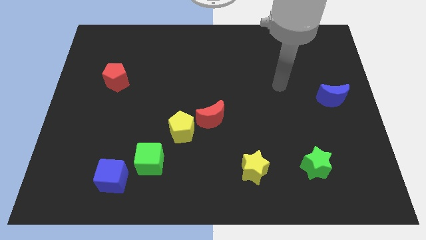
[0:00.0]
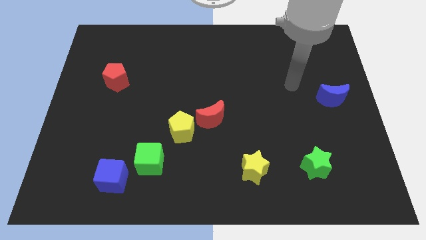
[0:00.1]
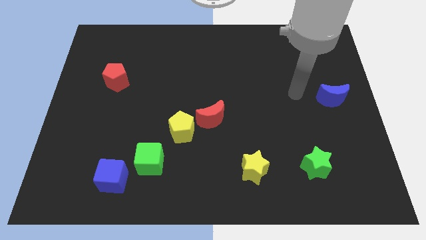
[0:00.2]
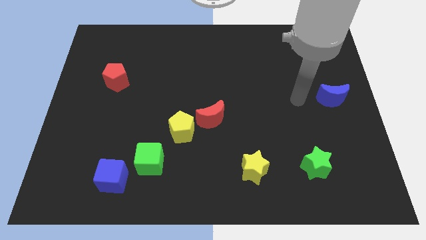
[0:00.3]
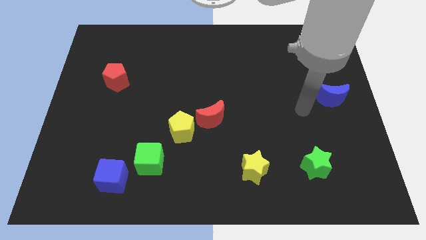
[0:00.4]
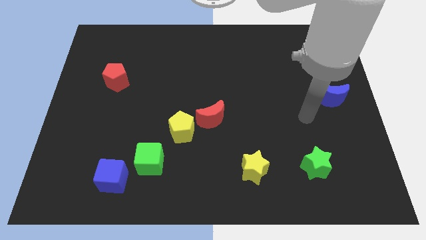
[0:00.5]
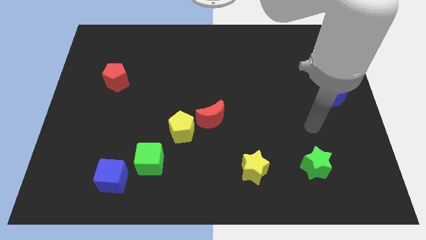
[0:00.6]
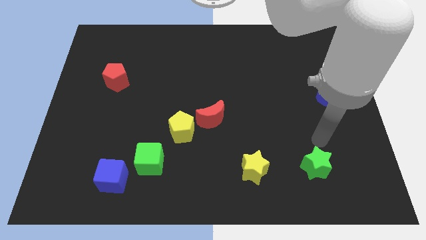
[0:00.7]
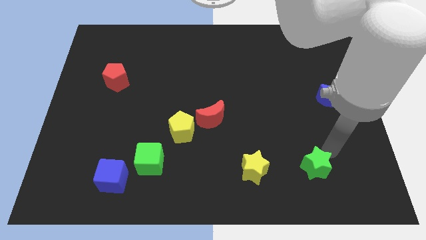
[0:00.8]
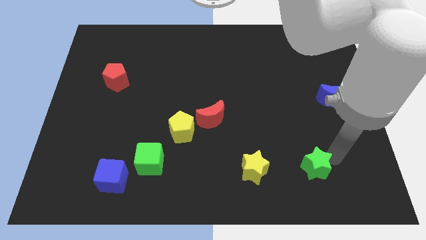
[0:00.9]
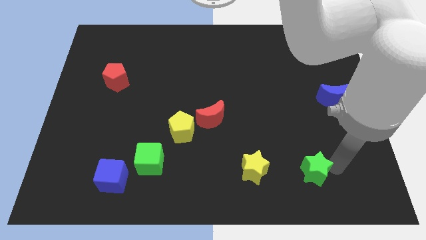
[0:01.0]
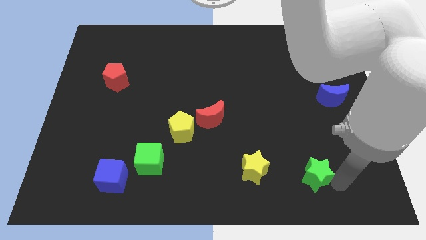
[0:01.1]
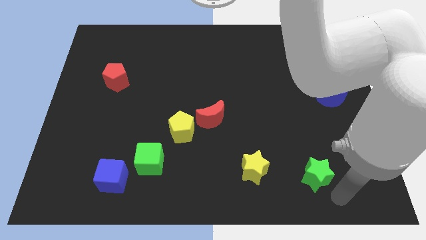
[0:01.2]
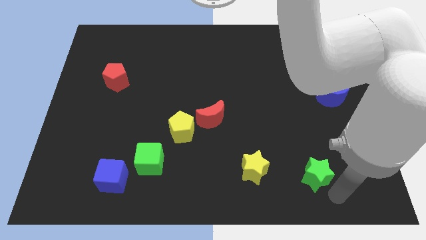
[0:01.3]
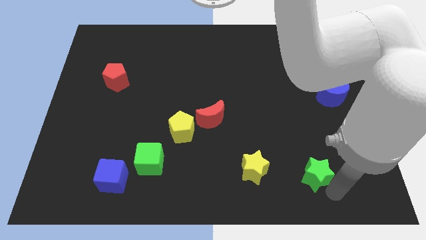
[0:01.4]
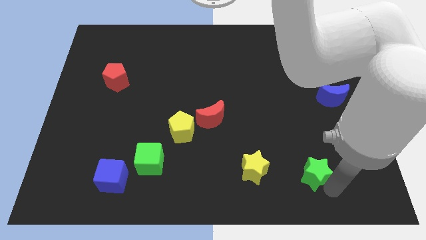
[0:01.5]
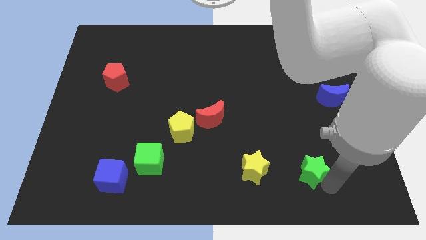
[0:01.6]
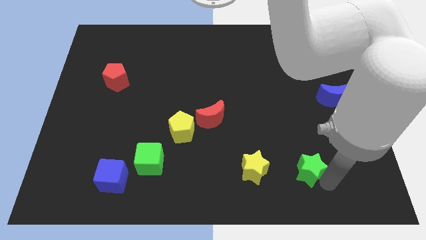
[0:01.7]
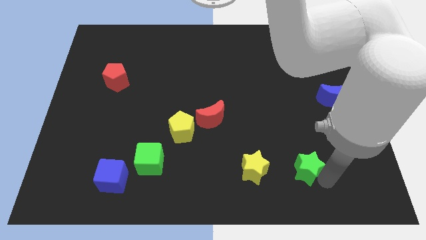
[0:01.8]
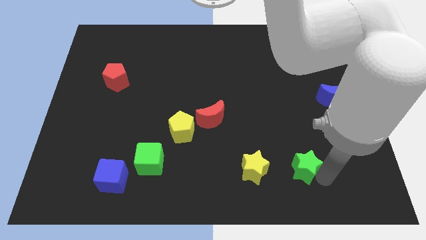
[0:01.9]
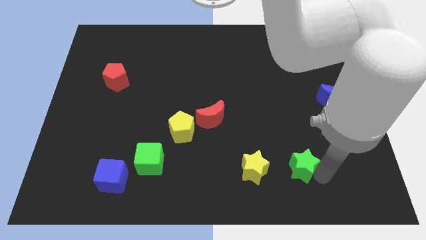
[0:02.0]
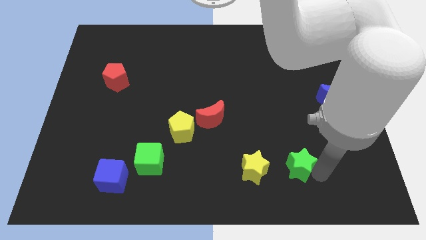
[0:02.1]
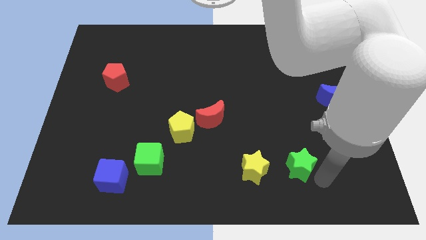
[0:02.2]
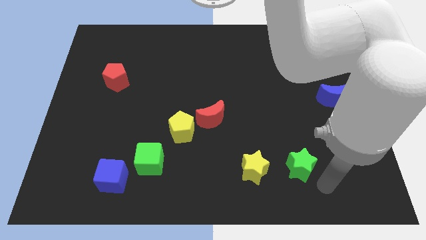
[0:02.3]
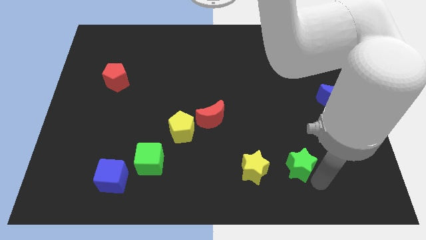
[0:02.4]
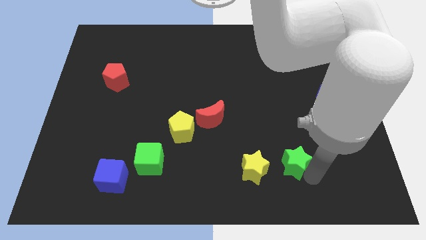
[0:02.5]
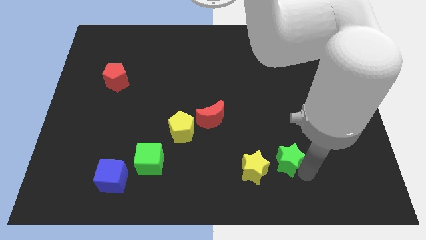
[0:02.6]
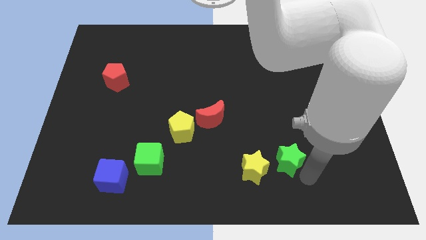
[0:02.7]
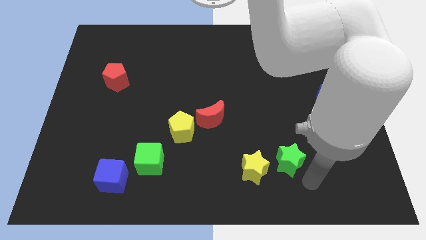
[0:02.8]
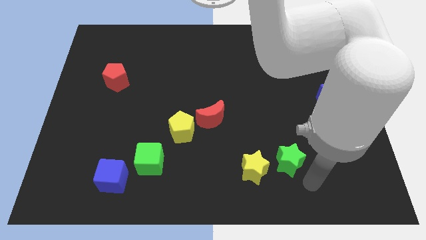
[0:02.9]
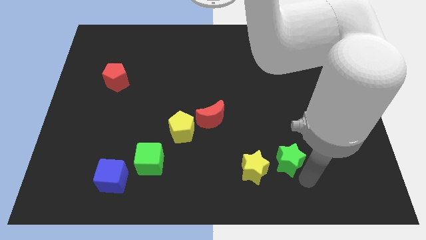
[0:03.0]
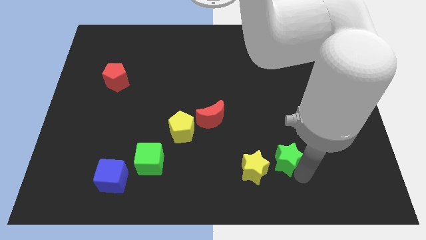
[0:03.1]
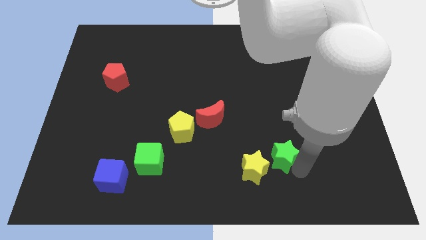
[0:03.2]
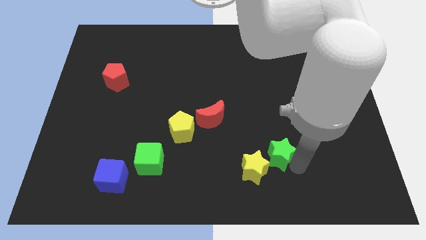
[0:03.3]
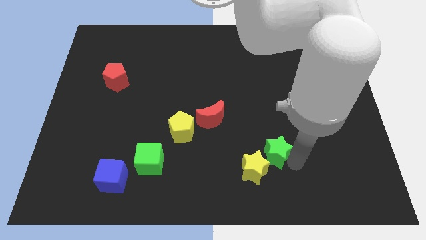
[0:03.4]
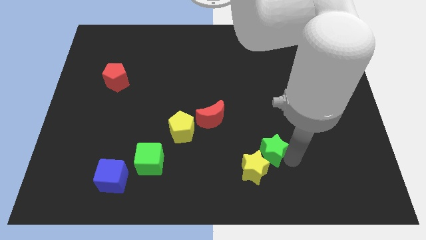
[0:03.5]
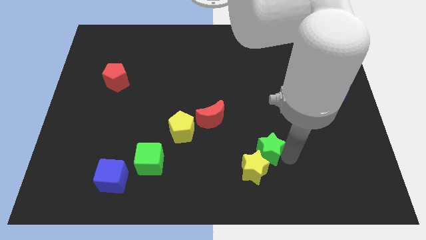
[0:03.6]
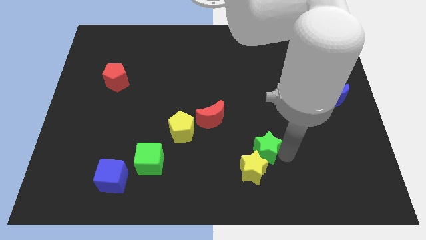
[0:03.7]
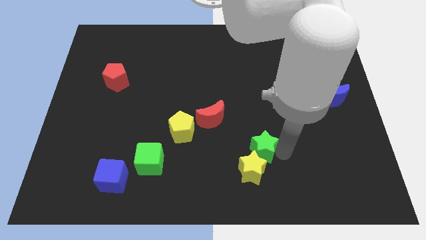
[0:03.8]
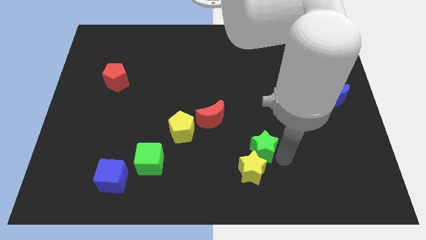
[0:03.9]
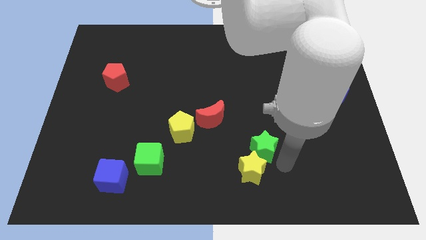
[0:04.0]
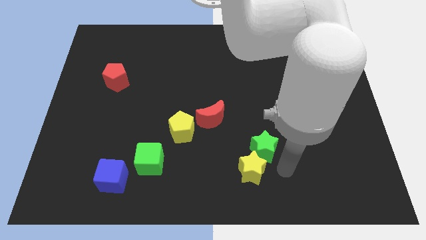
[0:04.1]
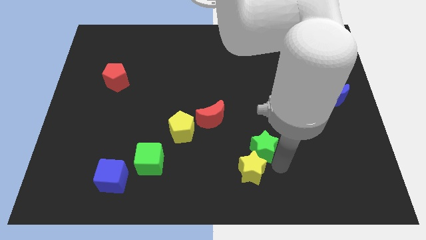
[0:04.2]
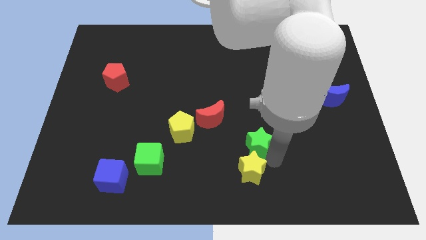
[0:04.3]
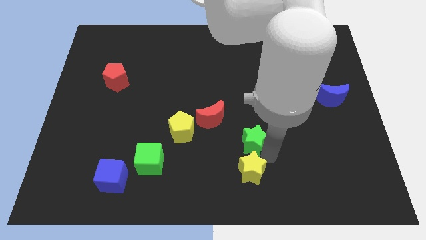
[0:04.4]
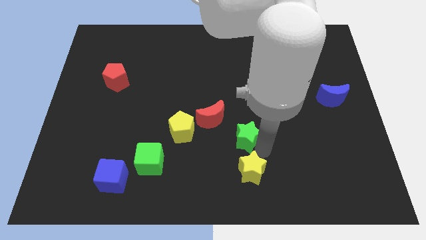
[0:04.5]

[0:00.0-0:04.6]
push the green star to the right side of the yellow pentagon

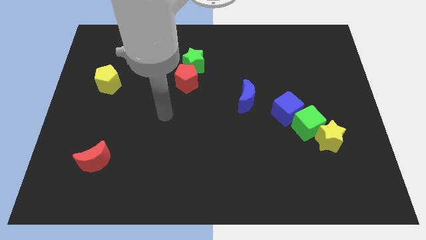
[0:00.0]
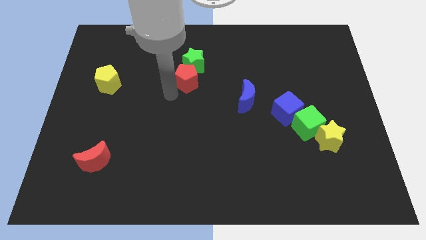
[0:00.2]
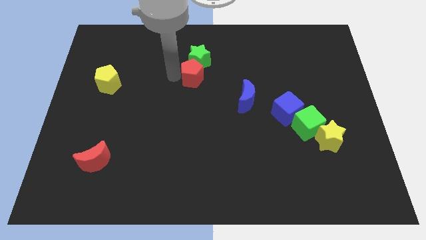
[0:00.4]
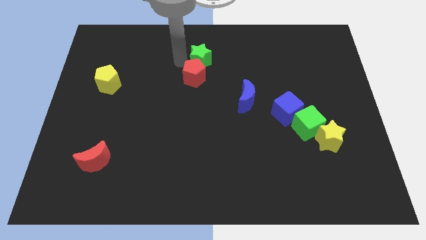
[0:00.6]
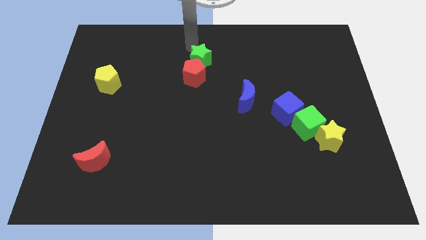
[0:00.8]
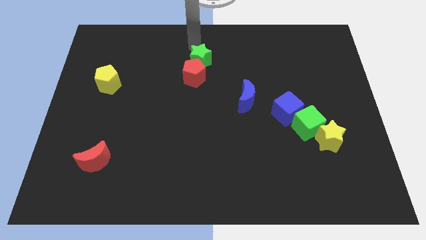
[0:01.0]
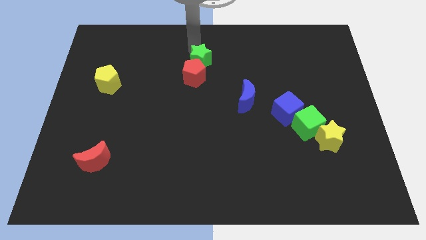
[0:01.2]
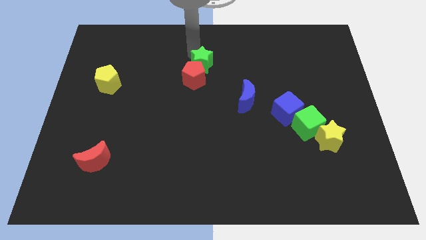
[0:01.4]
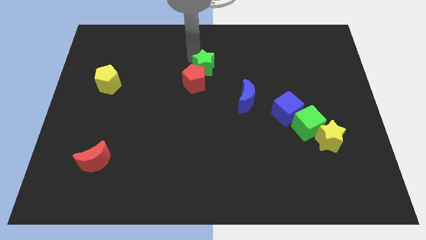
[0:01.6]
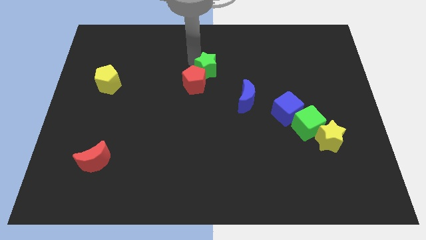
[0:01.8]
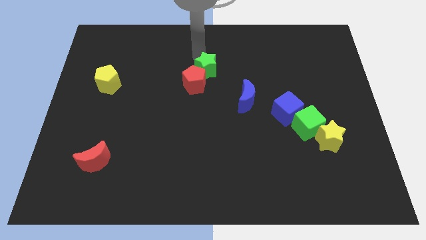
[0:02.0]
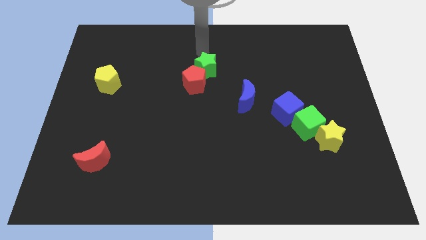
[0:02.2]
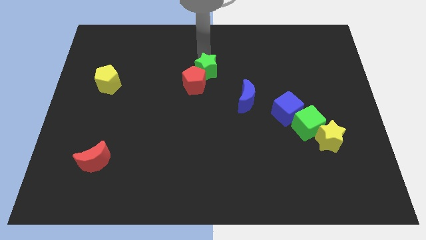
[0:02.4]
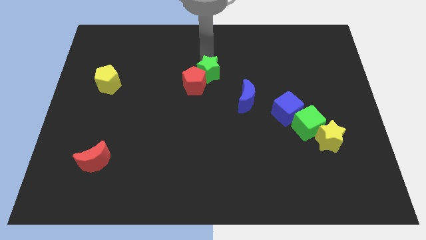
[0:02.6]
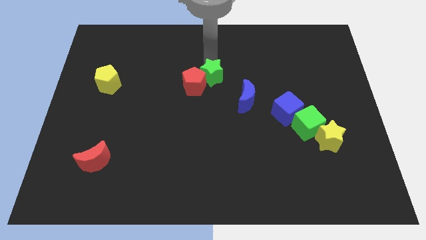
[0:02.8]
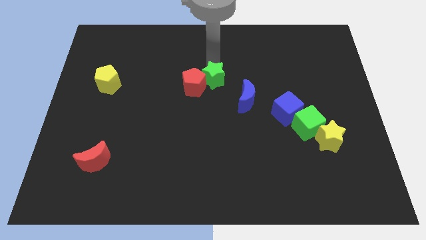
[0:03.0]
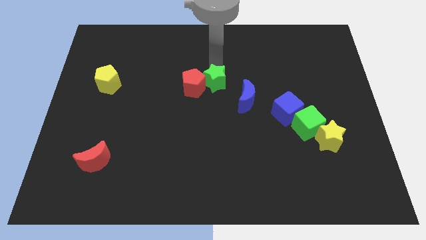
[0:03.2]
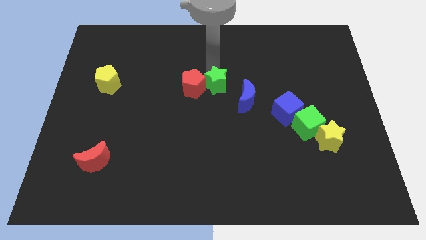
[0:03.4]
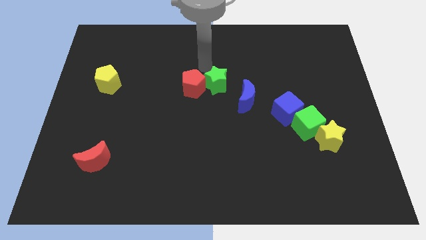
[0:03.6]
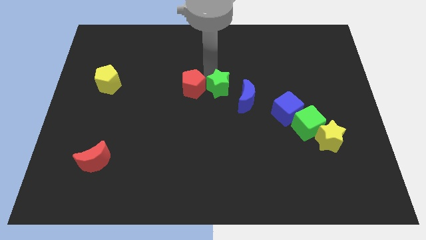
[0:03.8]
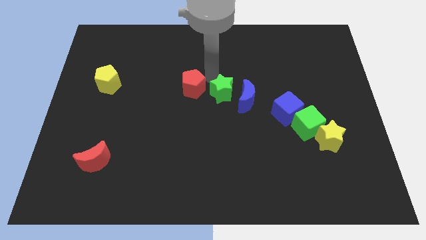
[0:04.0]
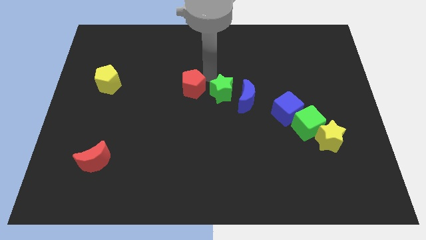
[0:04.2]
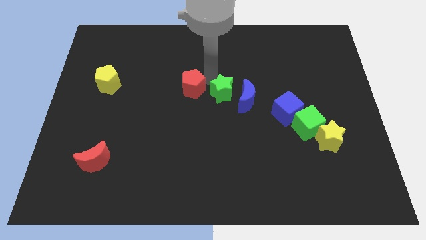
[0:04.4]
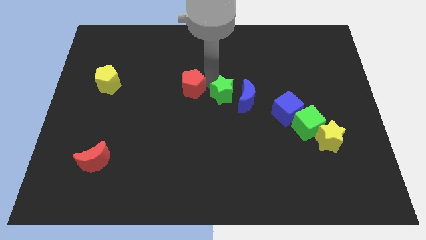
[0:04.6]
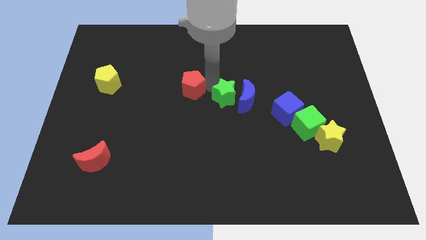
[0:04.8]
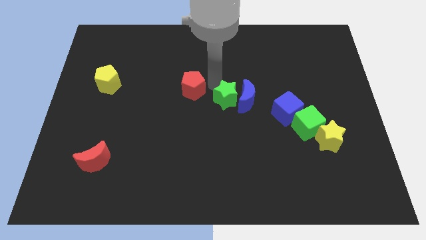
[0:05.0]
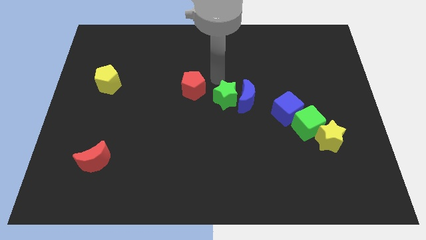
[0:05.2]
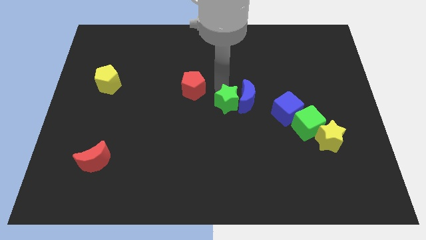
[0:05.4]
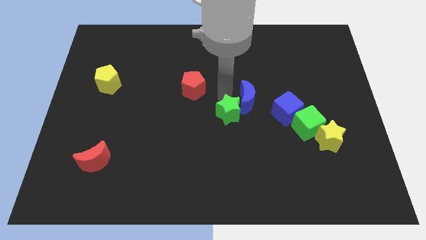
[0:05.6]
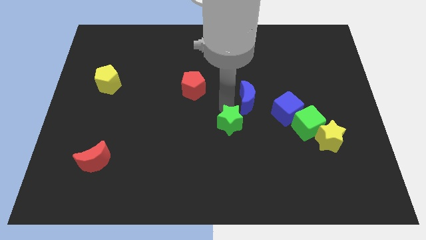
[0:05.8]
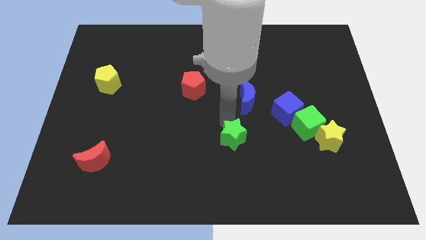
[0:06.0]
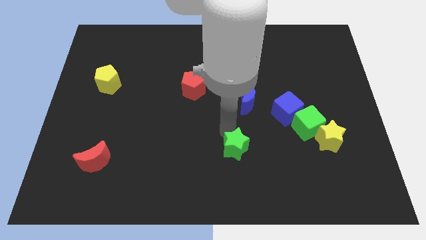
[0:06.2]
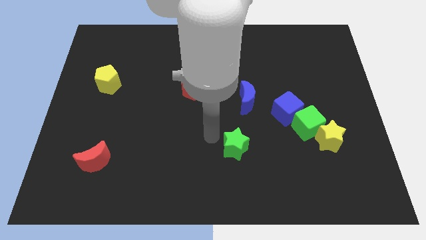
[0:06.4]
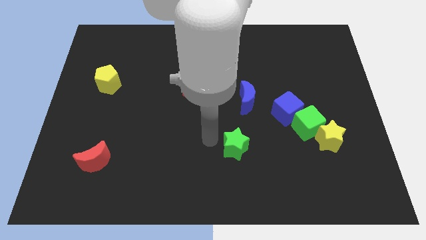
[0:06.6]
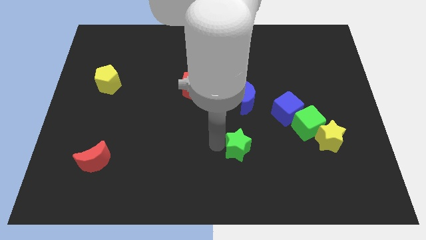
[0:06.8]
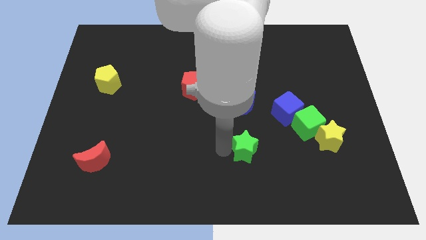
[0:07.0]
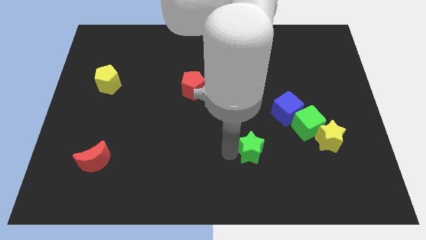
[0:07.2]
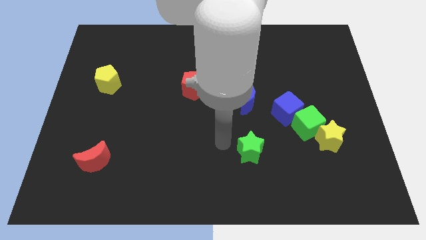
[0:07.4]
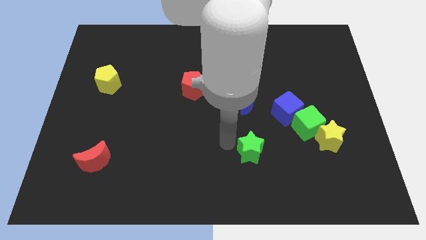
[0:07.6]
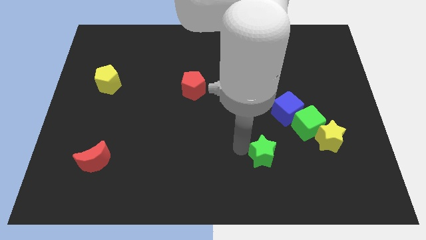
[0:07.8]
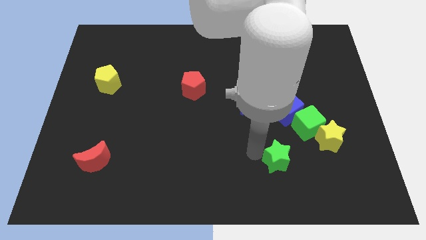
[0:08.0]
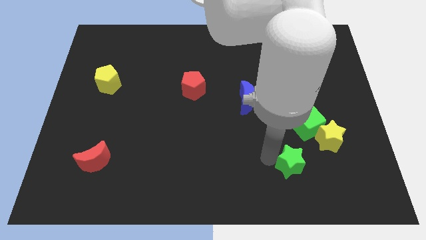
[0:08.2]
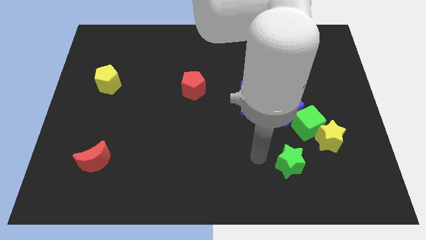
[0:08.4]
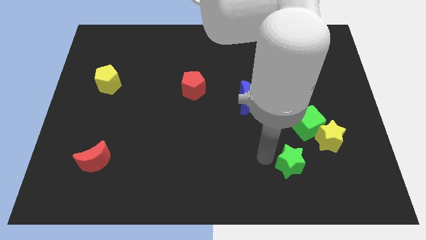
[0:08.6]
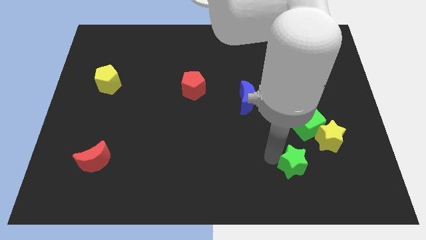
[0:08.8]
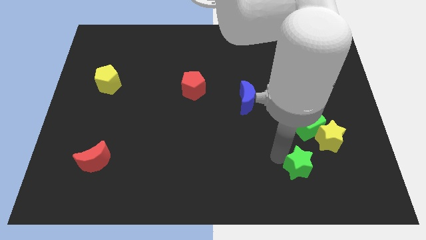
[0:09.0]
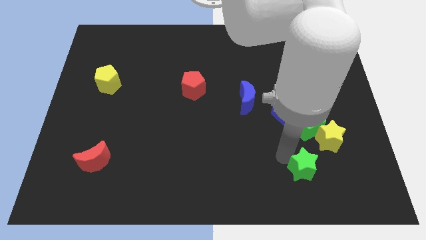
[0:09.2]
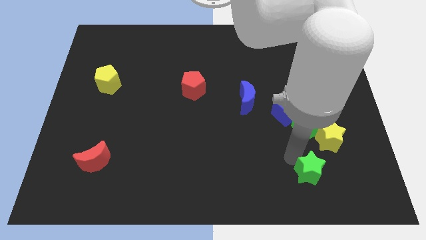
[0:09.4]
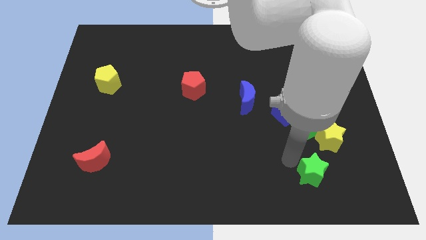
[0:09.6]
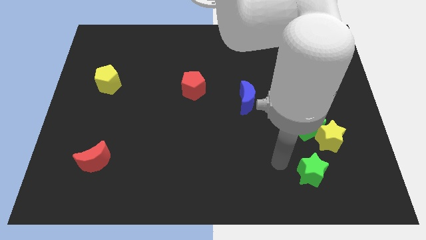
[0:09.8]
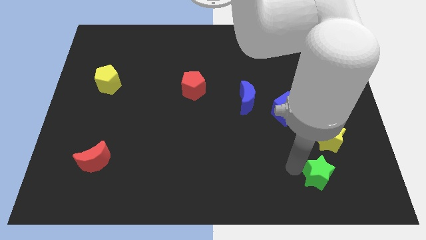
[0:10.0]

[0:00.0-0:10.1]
slide the green star to the bottom side of the yellow star
